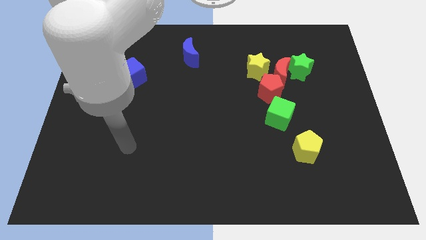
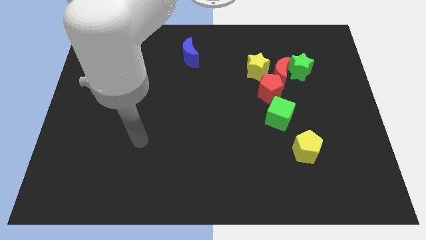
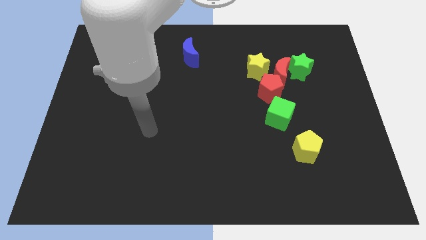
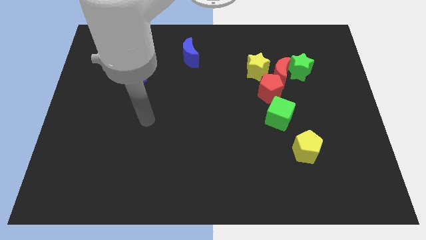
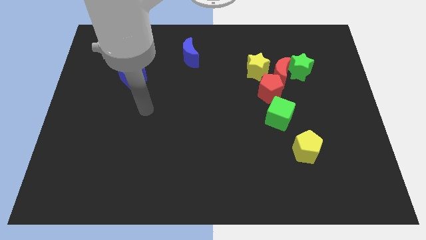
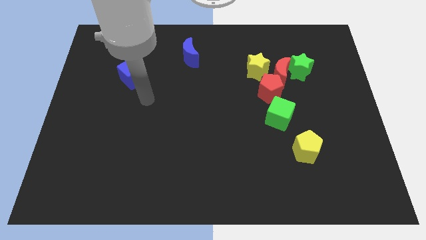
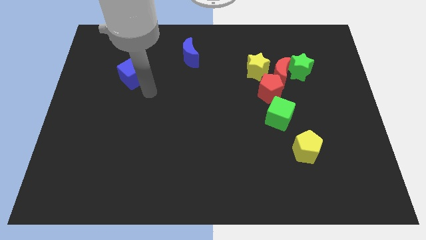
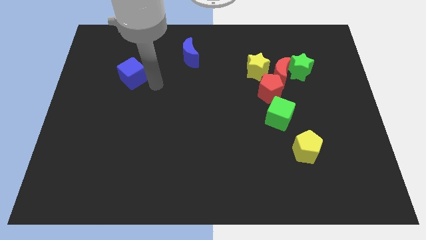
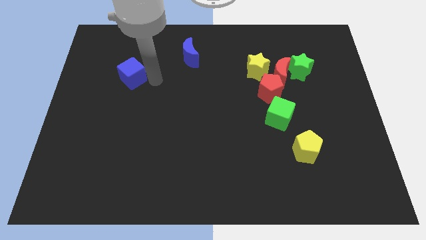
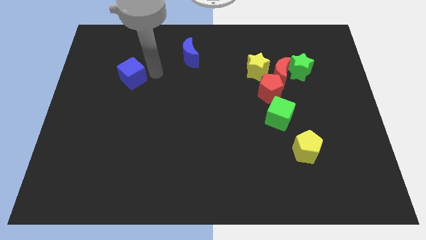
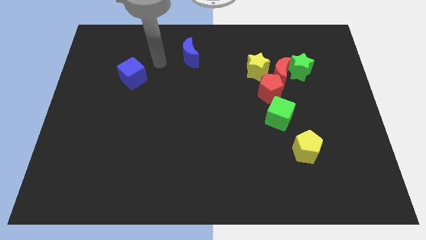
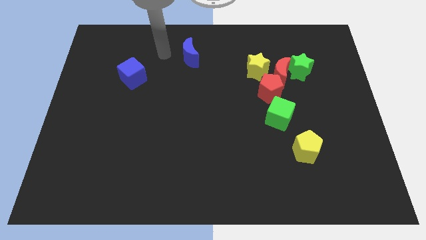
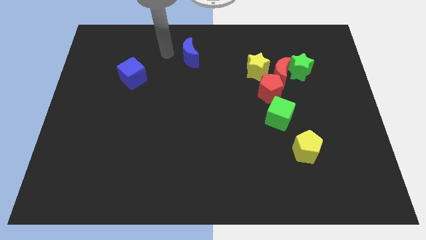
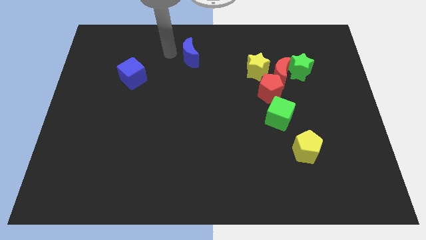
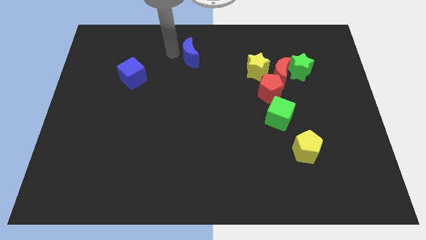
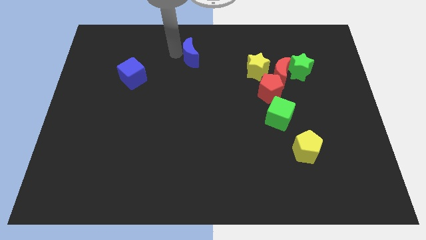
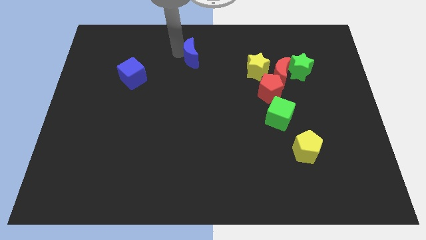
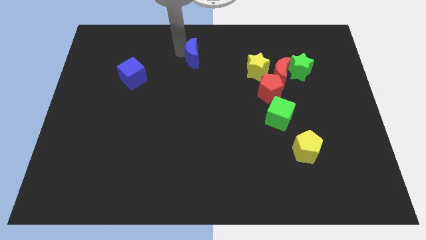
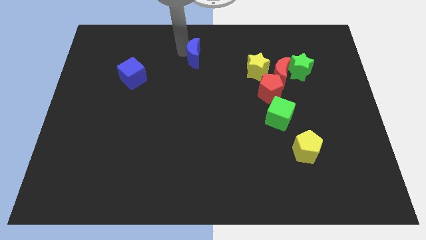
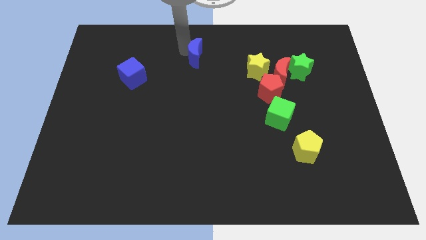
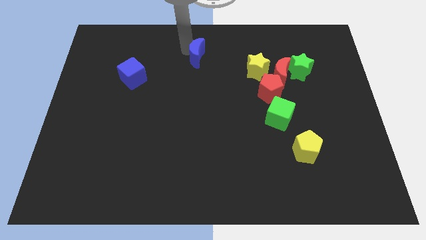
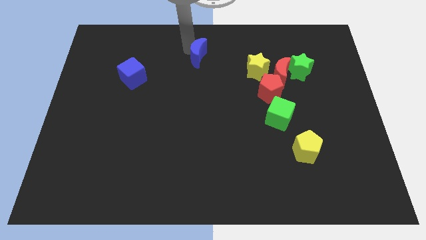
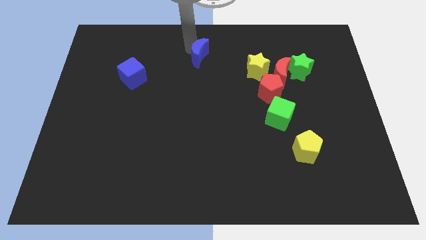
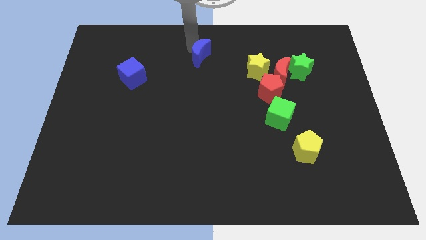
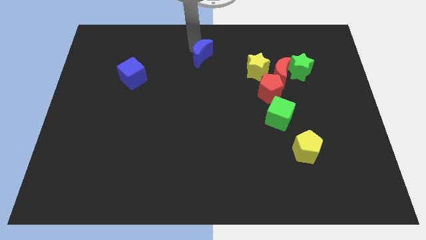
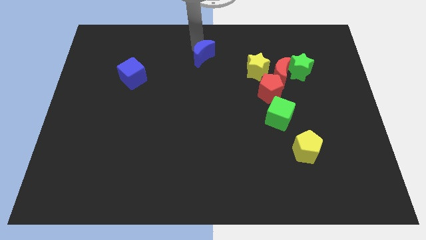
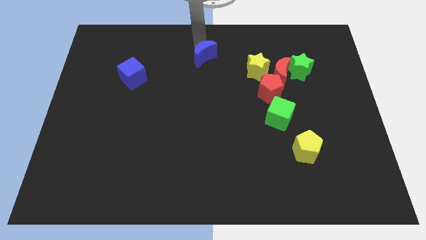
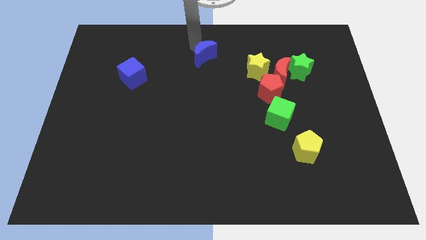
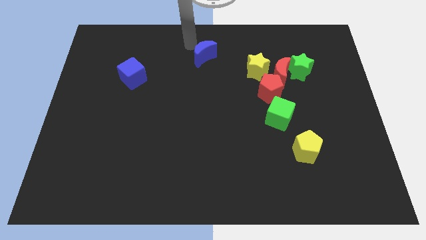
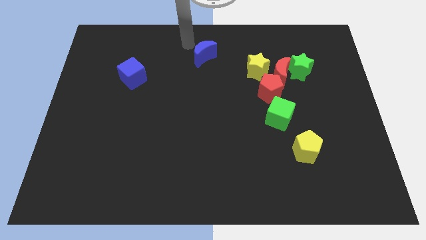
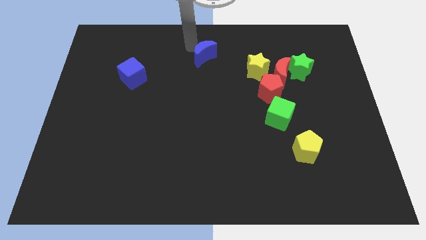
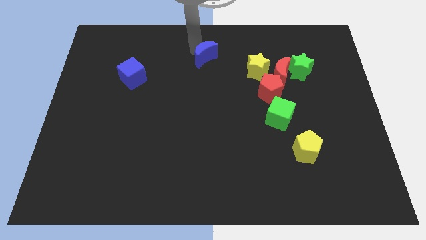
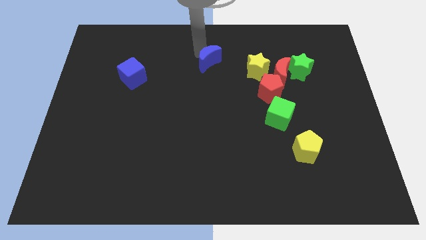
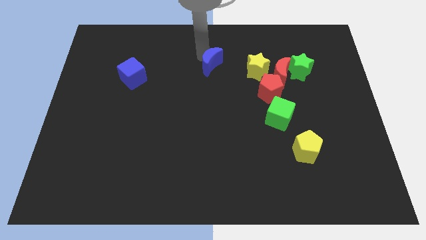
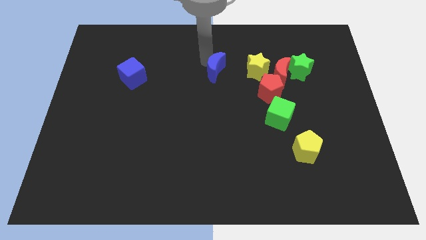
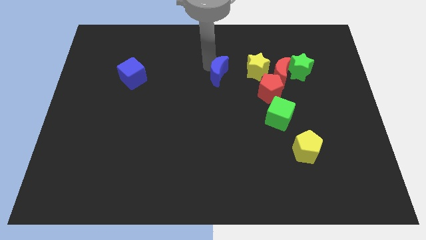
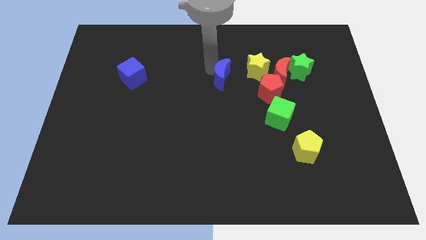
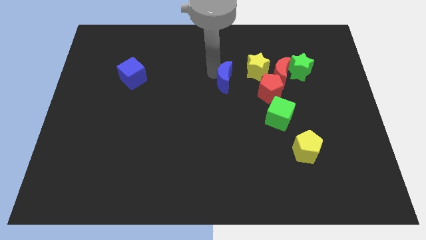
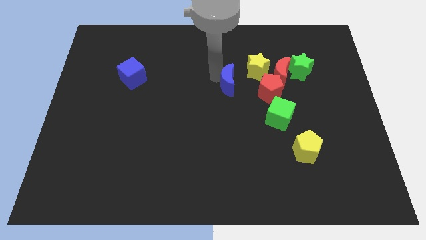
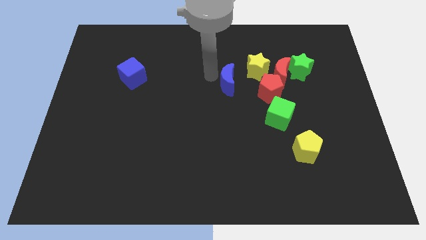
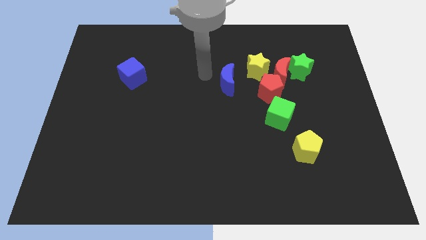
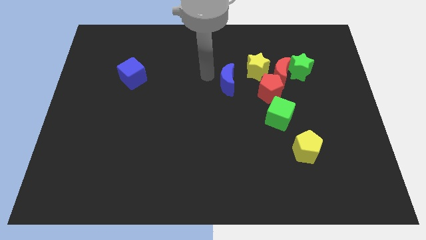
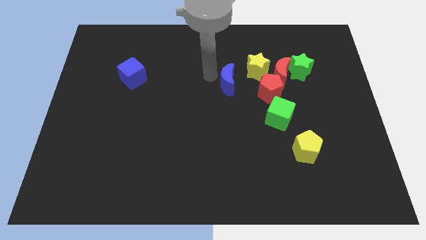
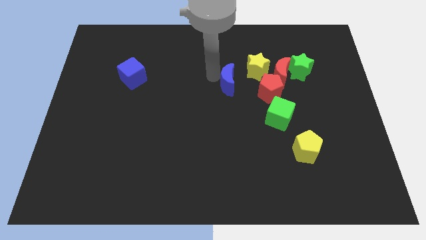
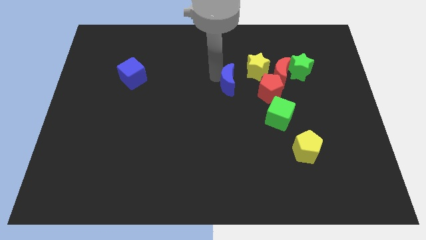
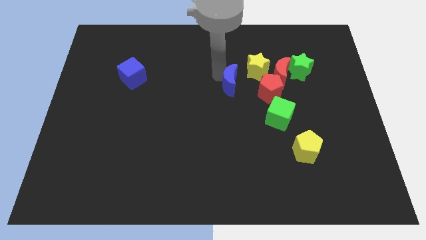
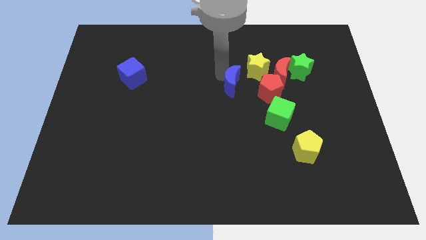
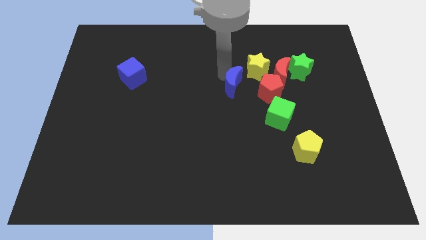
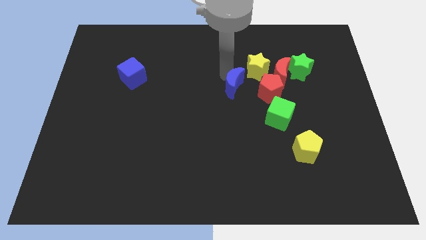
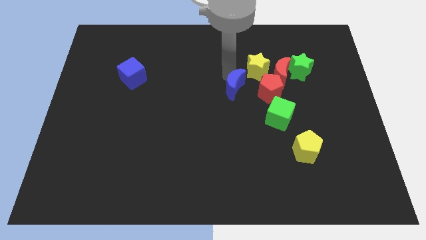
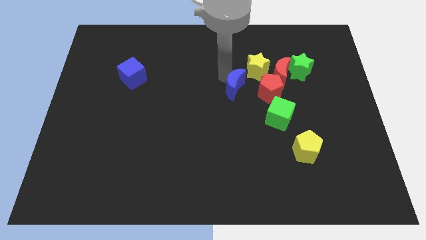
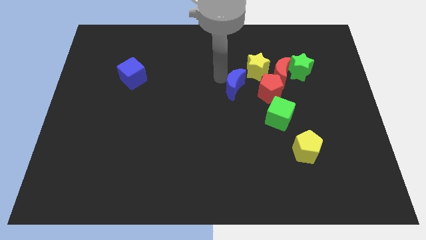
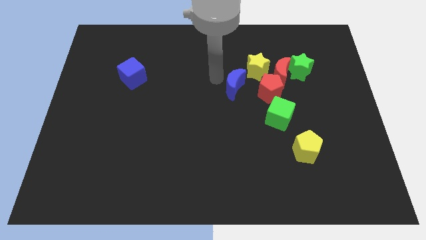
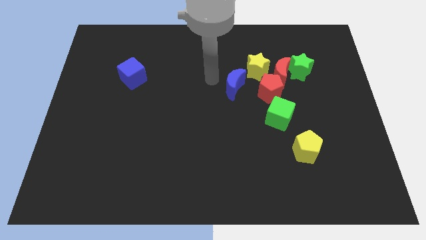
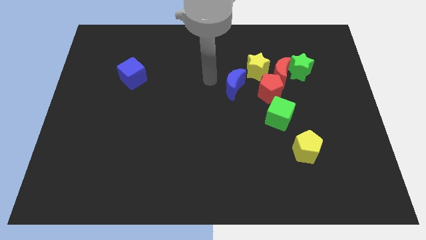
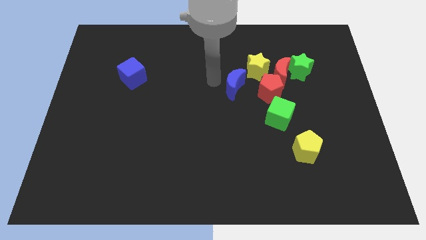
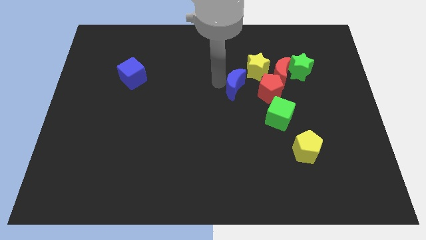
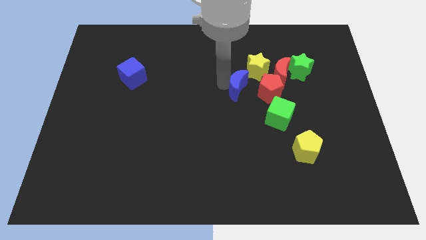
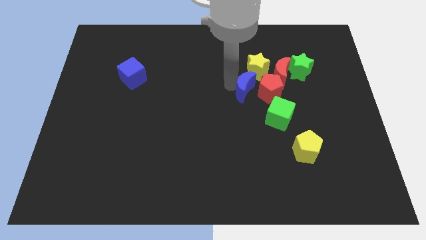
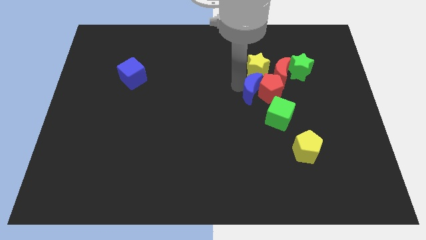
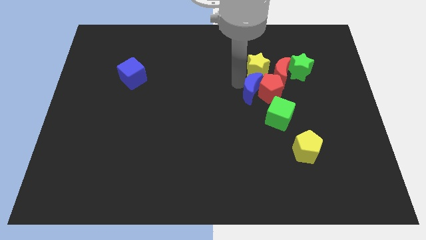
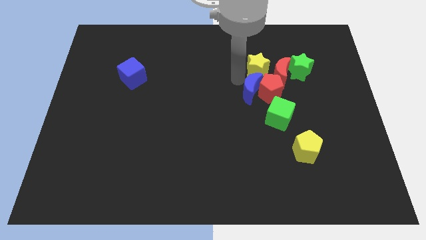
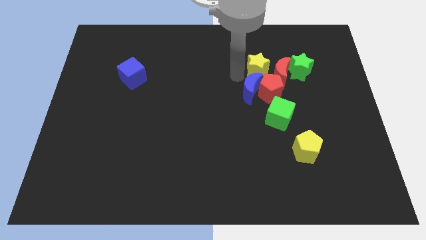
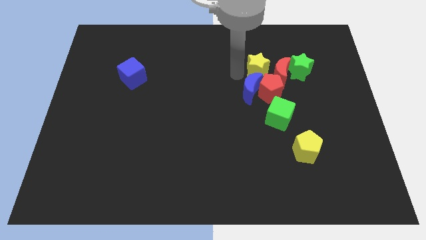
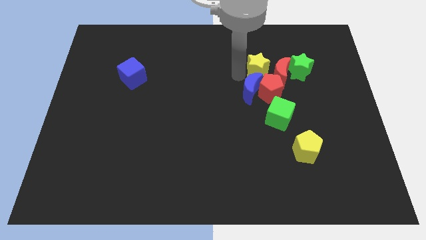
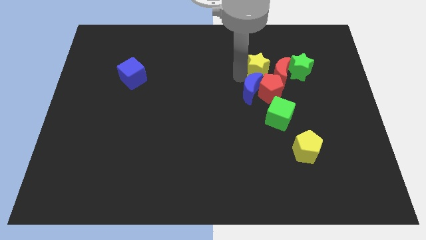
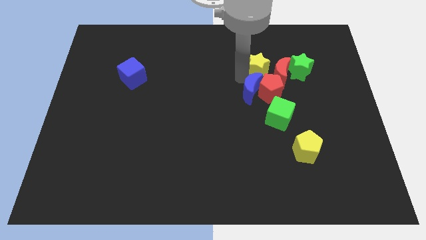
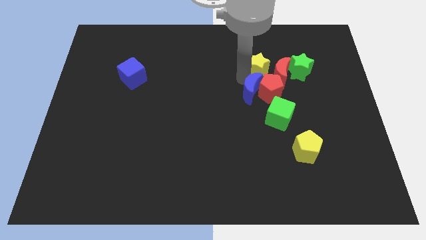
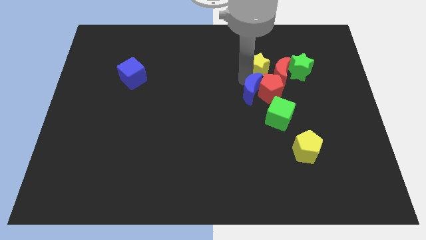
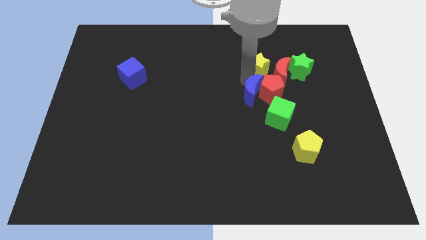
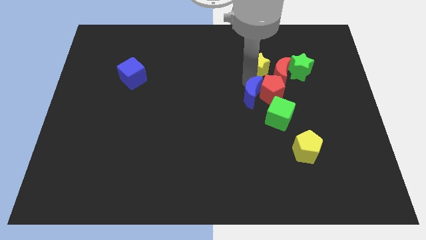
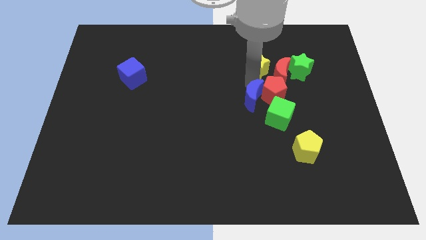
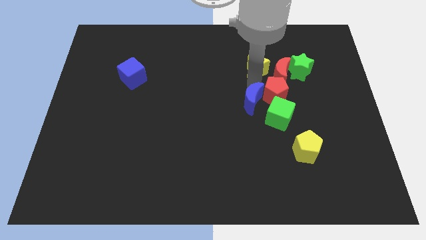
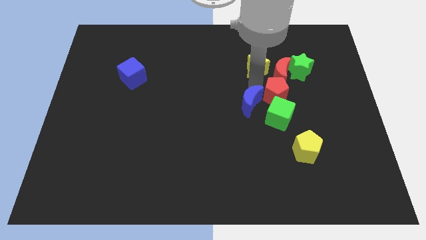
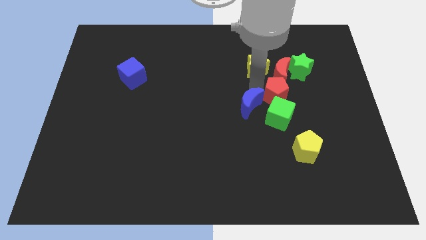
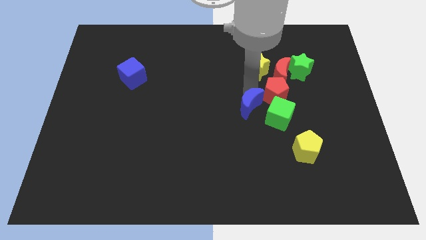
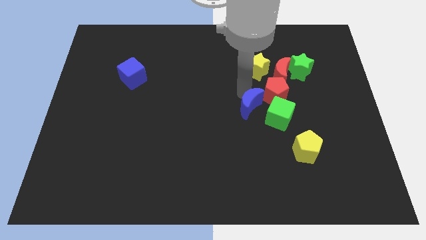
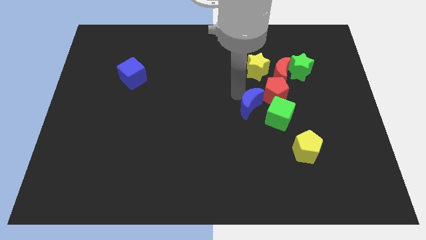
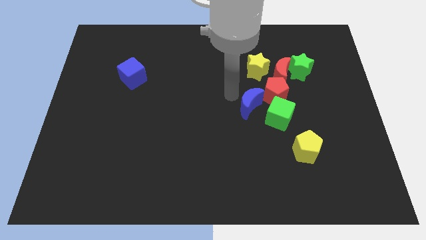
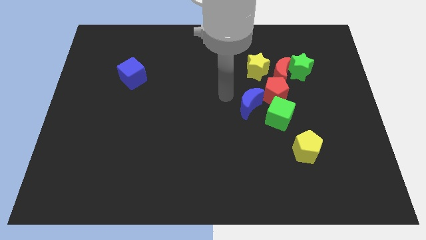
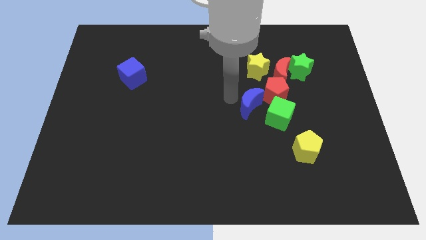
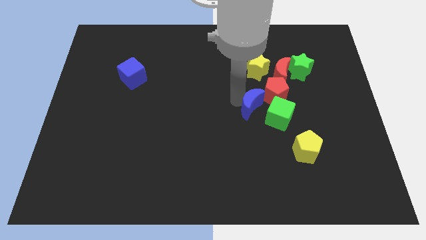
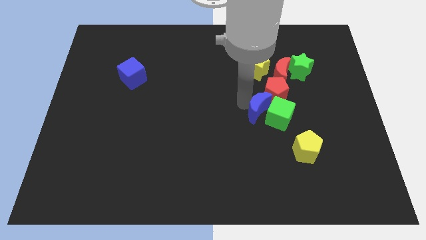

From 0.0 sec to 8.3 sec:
move the blue moon next to the green cube

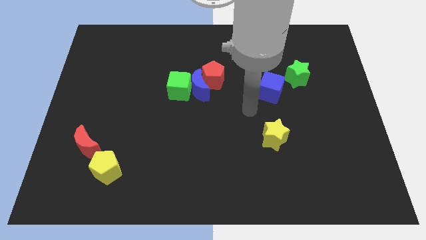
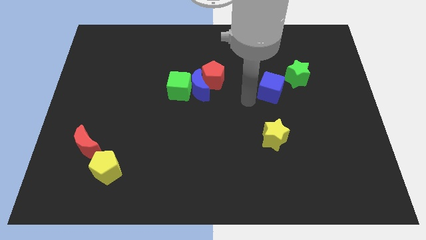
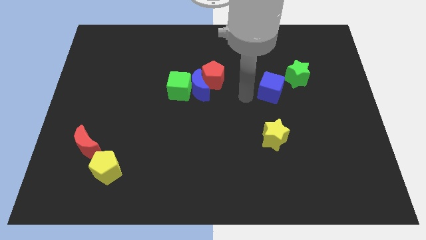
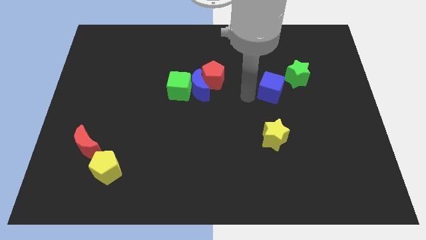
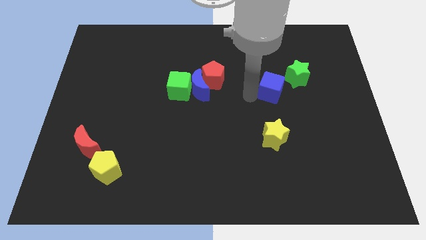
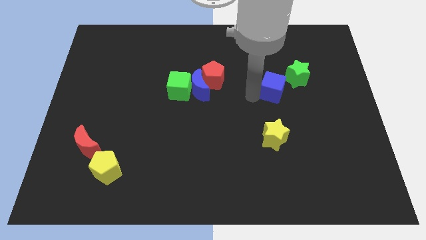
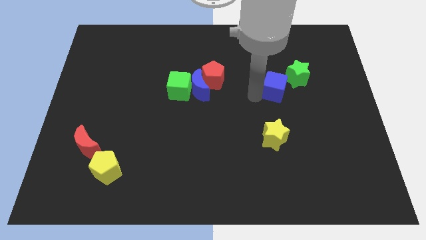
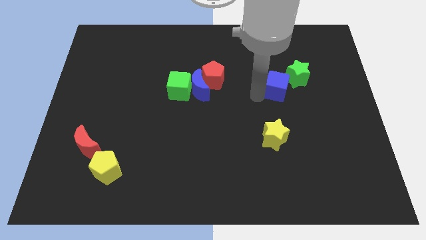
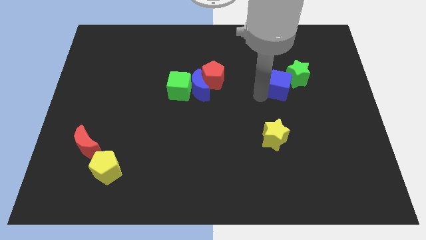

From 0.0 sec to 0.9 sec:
move the blue cube to the green star
